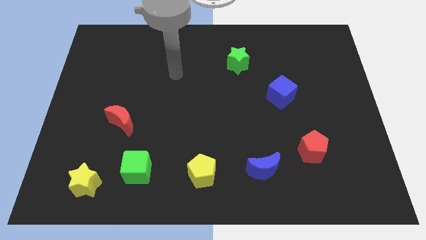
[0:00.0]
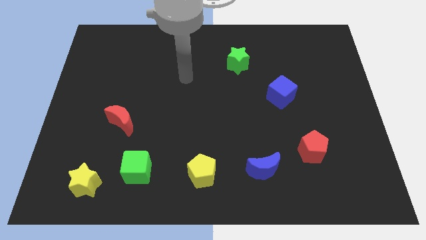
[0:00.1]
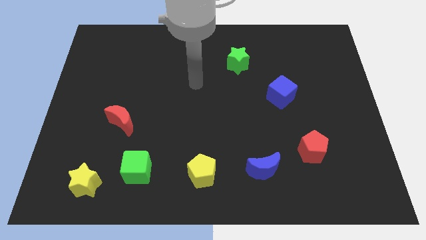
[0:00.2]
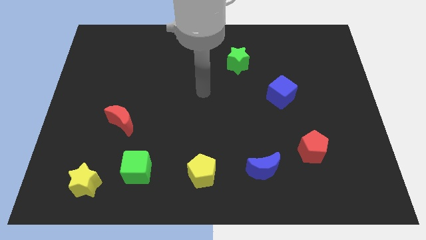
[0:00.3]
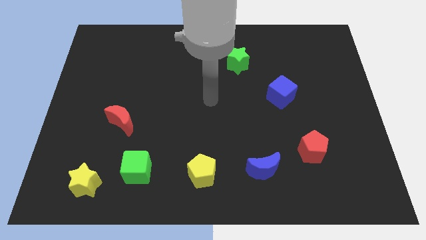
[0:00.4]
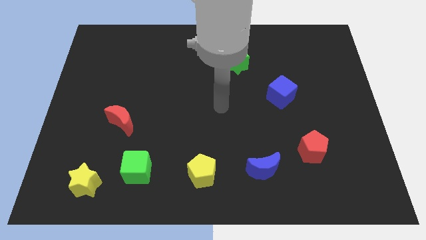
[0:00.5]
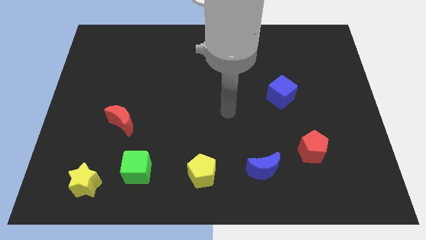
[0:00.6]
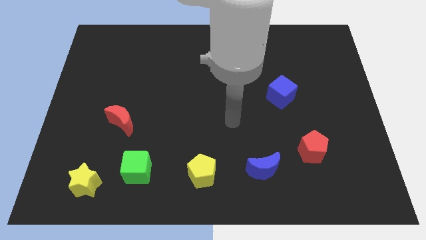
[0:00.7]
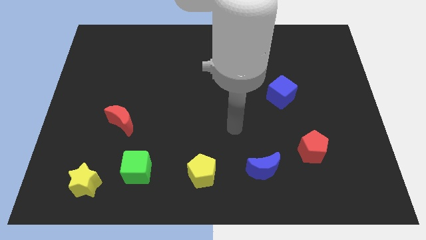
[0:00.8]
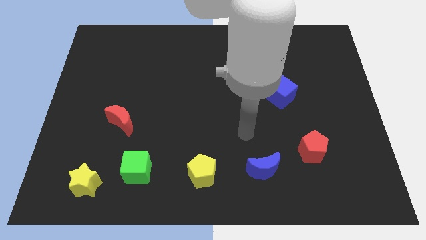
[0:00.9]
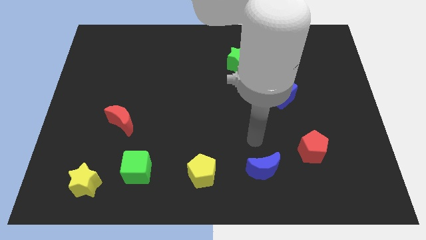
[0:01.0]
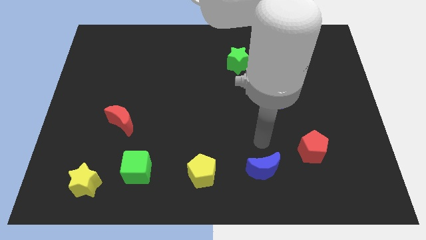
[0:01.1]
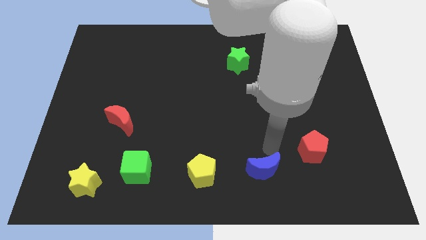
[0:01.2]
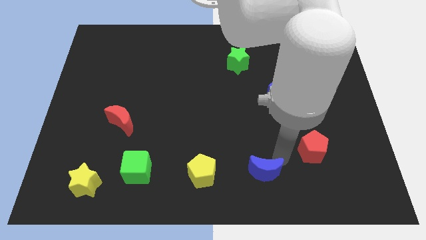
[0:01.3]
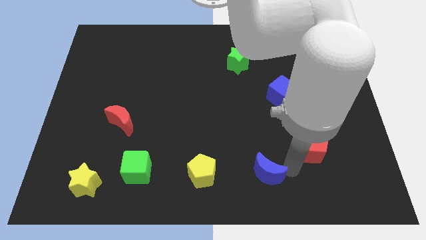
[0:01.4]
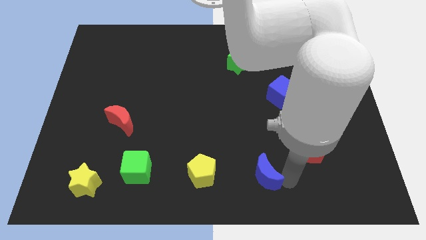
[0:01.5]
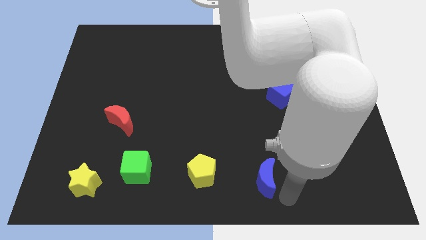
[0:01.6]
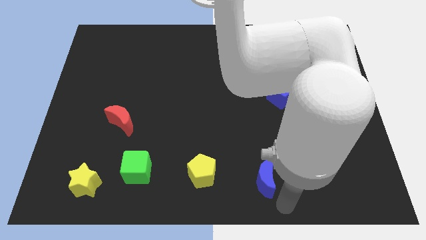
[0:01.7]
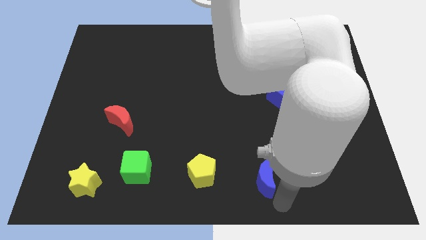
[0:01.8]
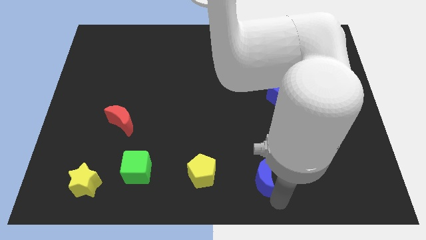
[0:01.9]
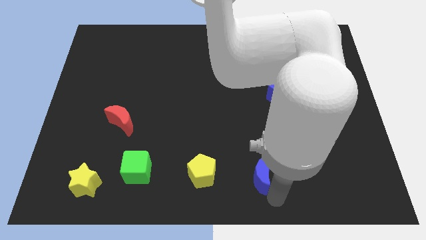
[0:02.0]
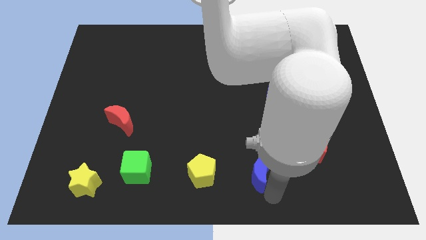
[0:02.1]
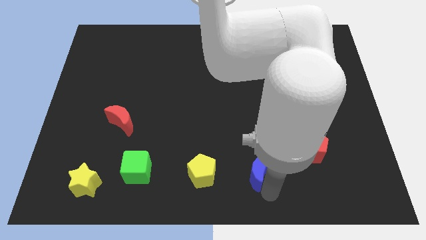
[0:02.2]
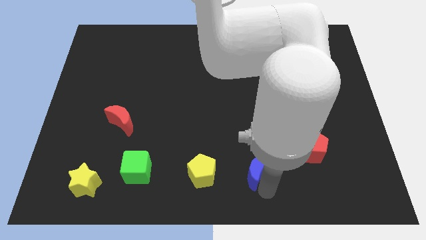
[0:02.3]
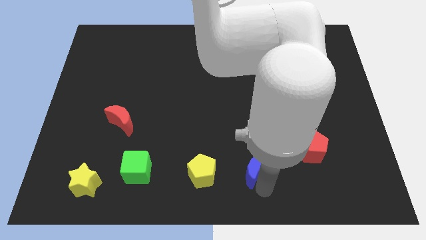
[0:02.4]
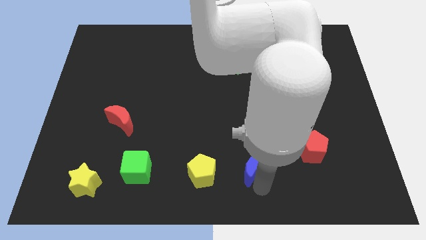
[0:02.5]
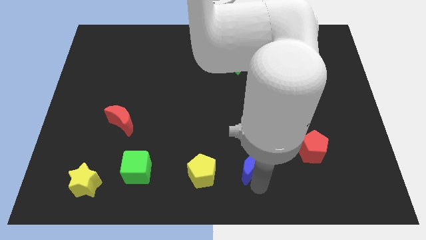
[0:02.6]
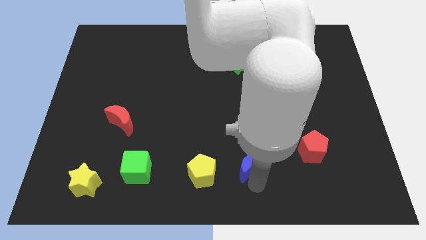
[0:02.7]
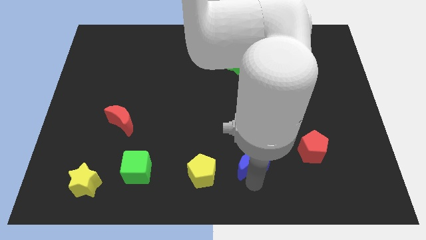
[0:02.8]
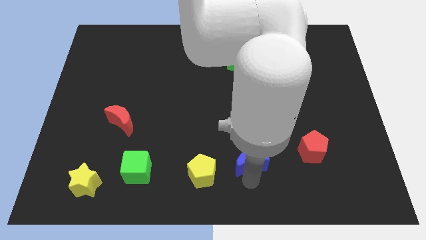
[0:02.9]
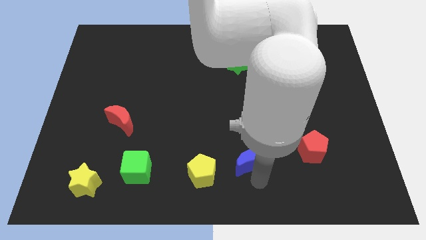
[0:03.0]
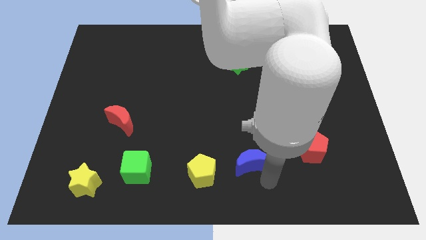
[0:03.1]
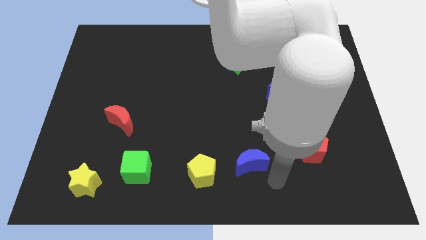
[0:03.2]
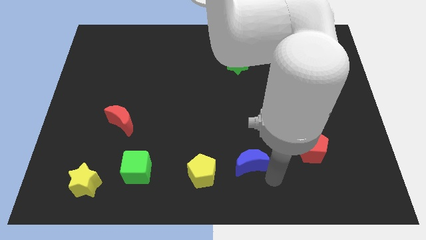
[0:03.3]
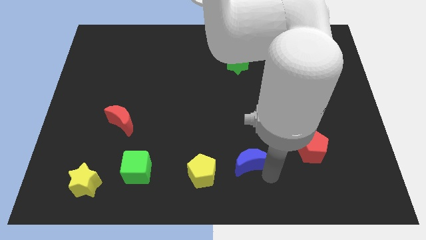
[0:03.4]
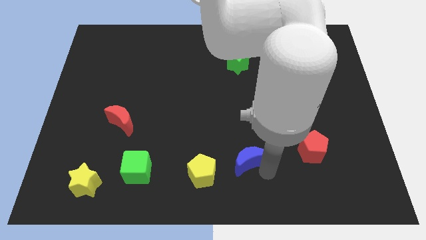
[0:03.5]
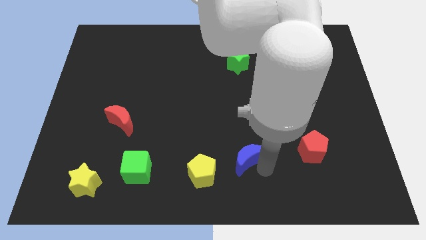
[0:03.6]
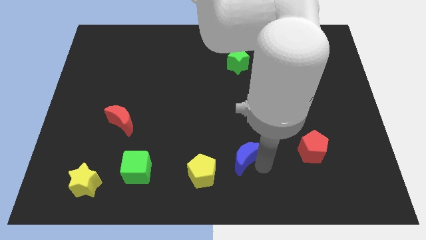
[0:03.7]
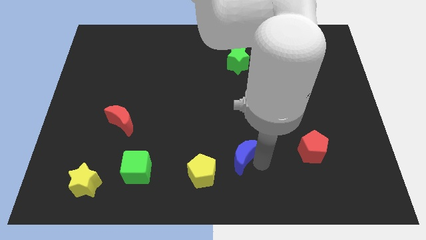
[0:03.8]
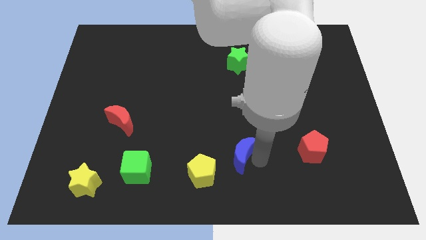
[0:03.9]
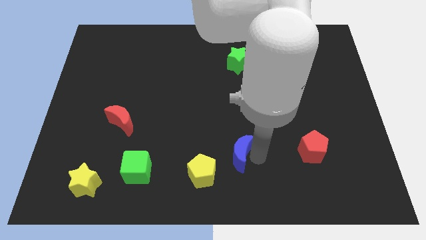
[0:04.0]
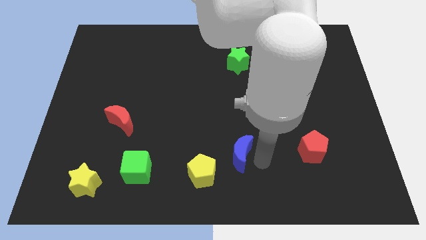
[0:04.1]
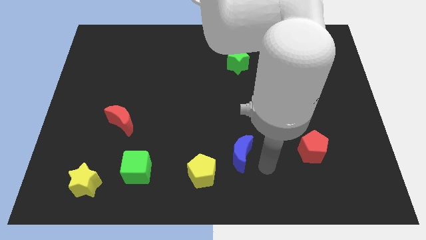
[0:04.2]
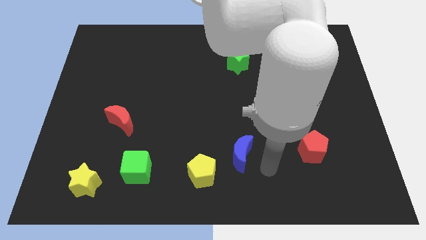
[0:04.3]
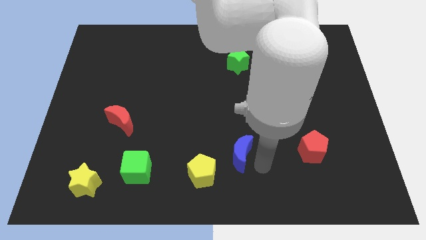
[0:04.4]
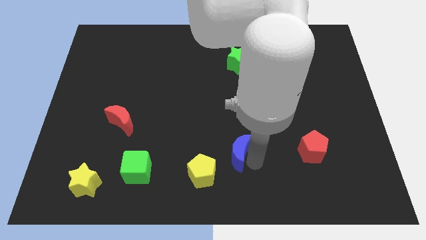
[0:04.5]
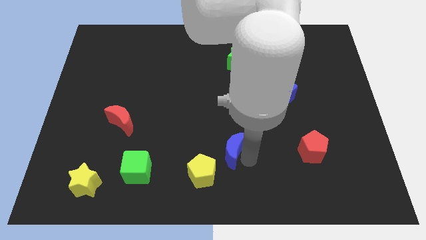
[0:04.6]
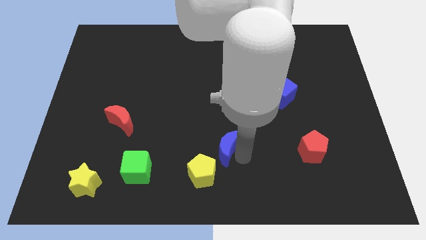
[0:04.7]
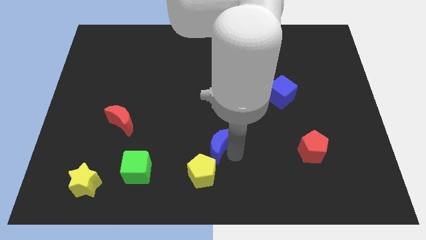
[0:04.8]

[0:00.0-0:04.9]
move the blue moon above the yellow pentagon
